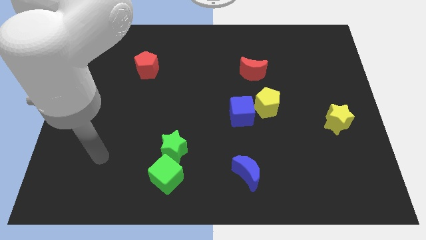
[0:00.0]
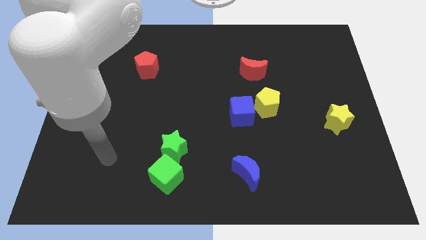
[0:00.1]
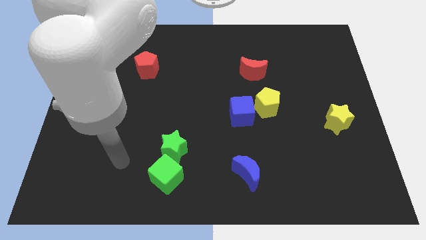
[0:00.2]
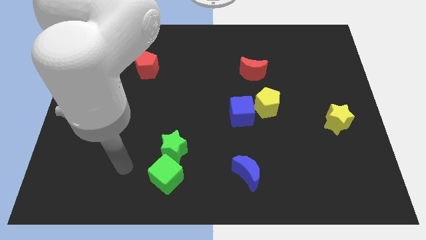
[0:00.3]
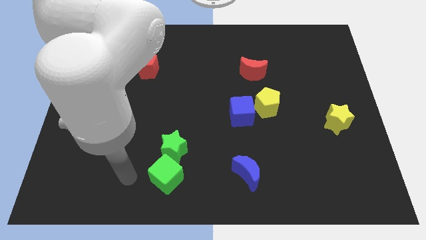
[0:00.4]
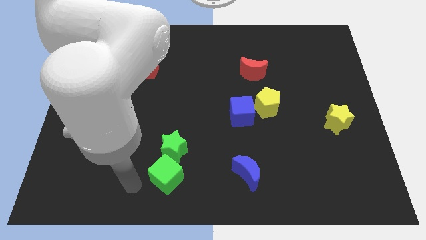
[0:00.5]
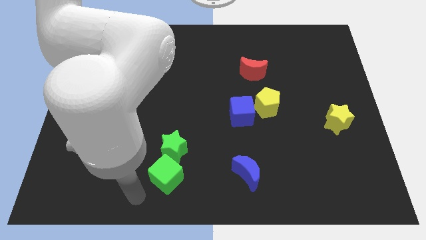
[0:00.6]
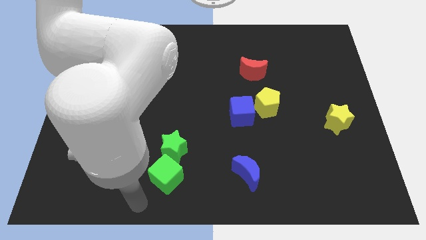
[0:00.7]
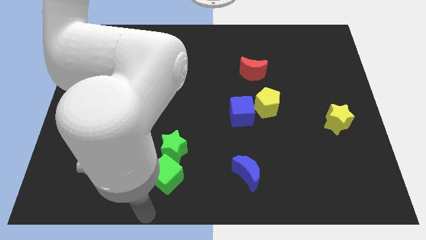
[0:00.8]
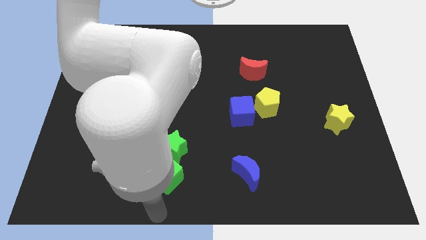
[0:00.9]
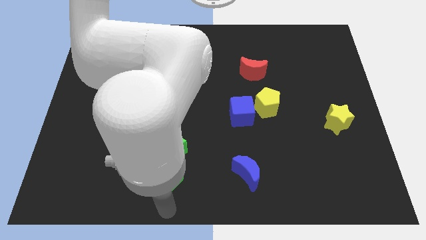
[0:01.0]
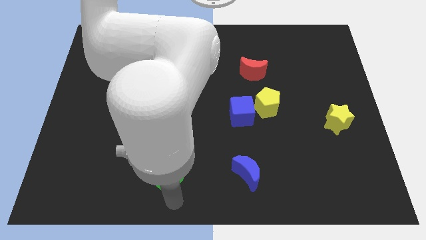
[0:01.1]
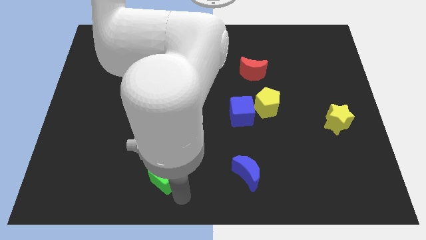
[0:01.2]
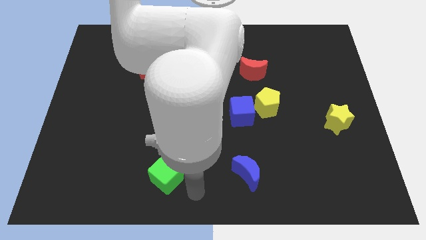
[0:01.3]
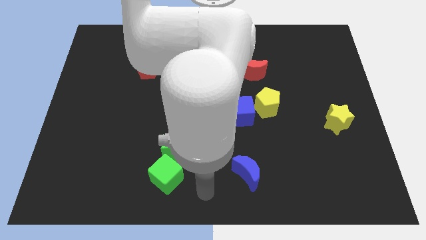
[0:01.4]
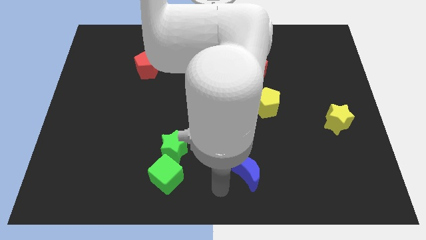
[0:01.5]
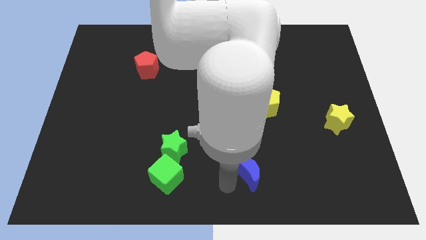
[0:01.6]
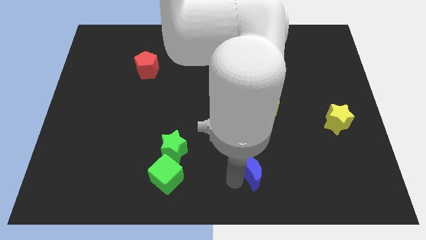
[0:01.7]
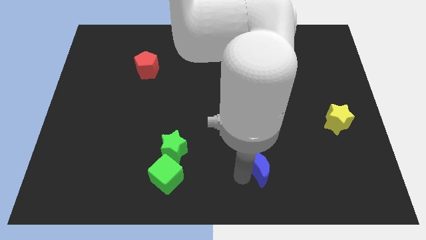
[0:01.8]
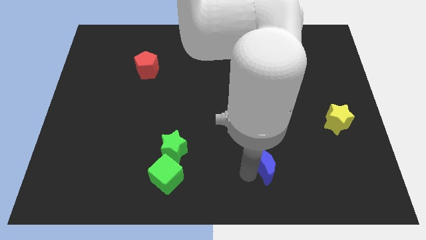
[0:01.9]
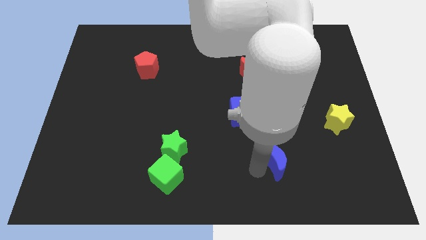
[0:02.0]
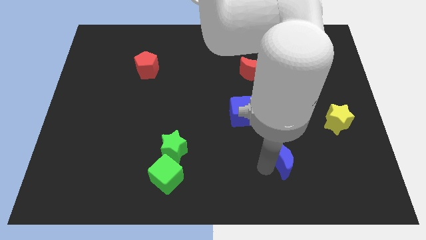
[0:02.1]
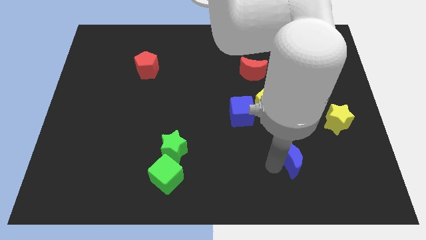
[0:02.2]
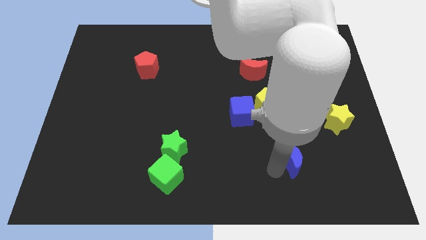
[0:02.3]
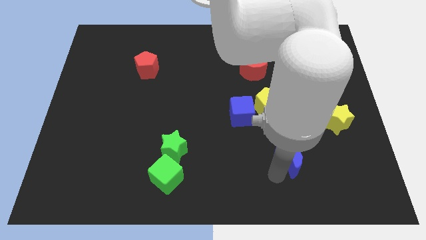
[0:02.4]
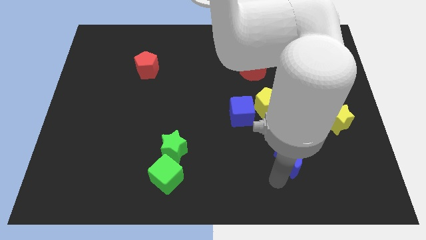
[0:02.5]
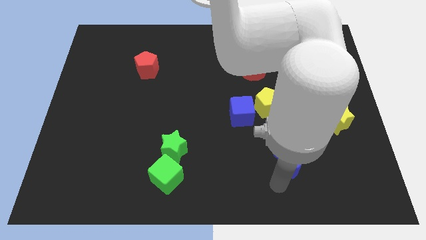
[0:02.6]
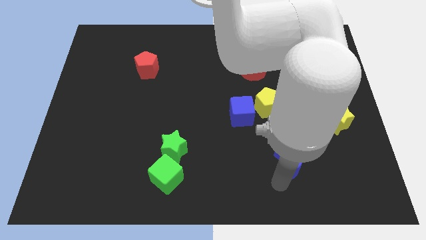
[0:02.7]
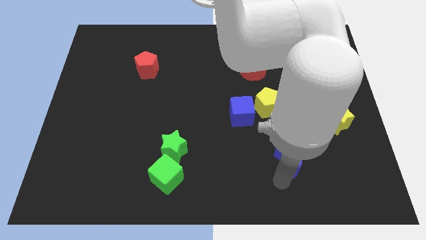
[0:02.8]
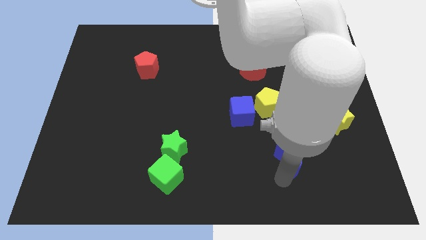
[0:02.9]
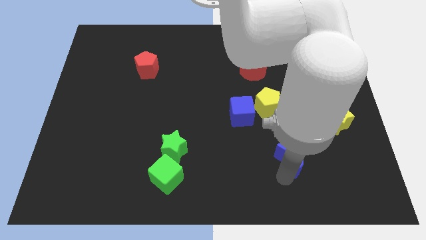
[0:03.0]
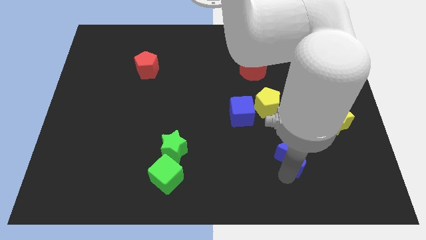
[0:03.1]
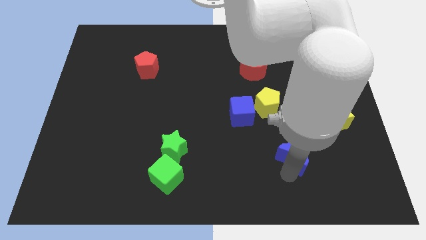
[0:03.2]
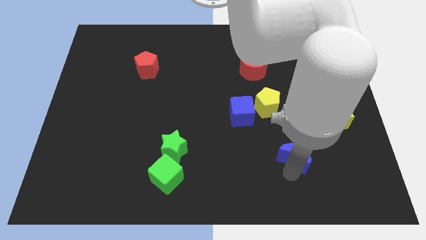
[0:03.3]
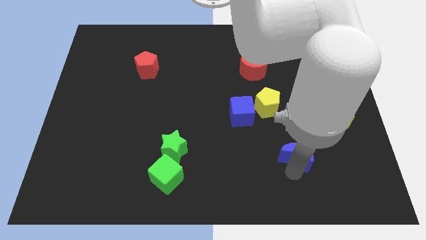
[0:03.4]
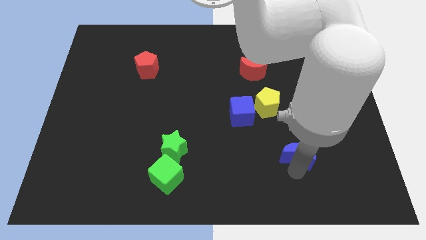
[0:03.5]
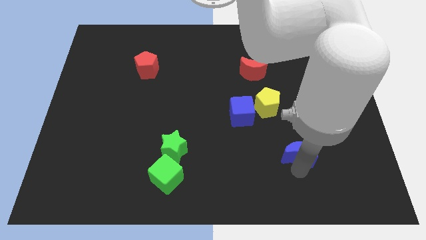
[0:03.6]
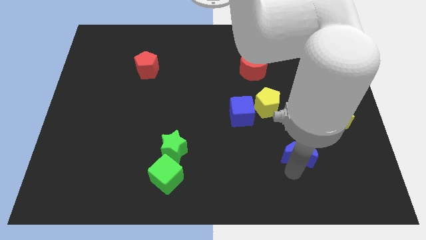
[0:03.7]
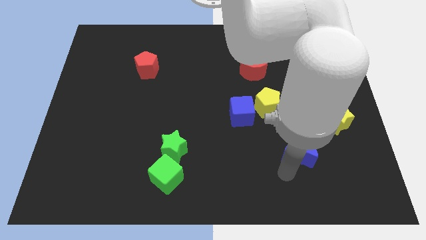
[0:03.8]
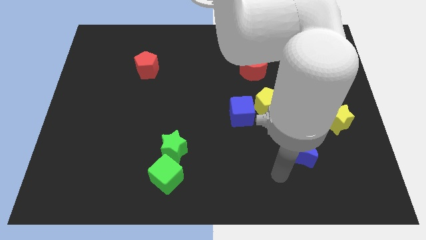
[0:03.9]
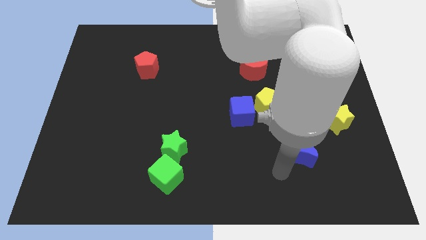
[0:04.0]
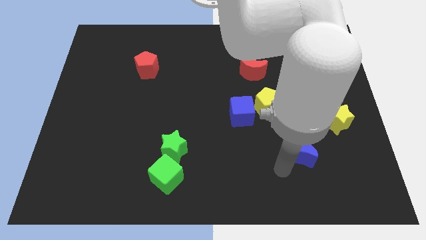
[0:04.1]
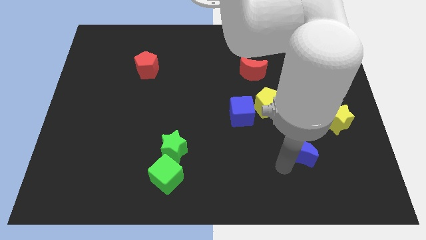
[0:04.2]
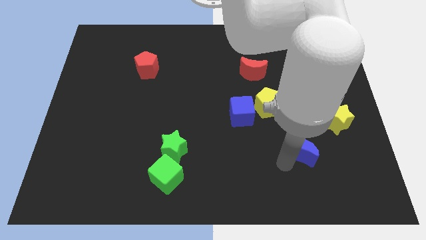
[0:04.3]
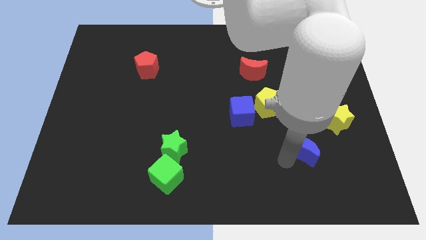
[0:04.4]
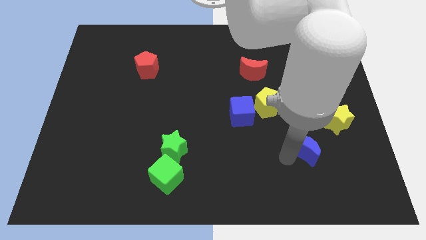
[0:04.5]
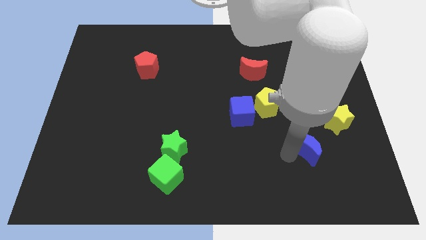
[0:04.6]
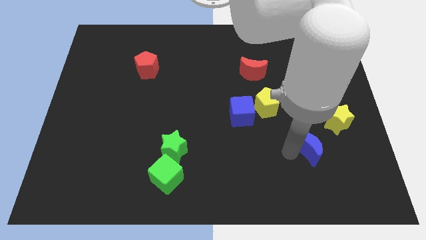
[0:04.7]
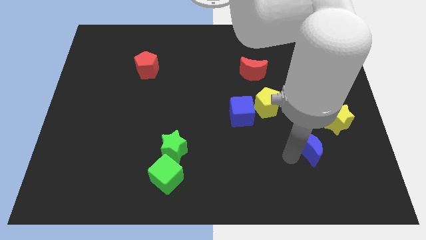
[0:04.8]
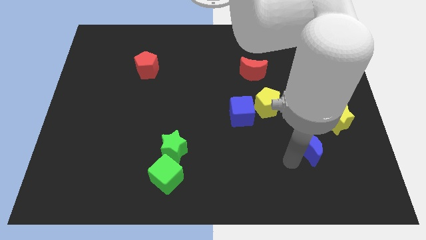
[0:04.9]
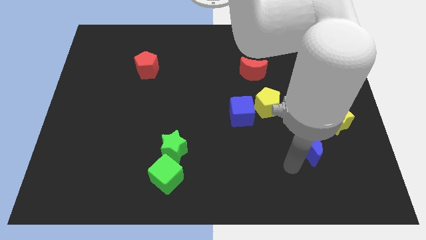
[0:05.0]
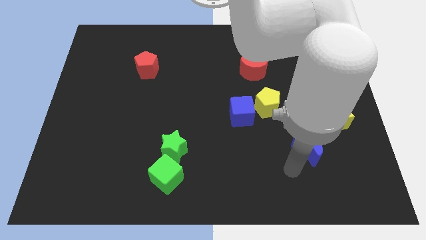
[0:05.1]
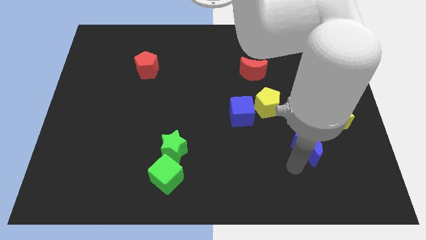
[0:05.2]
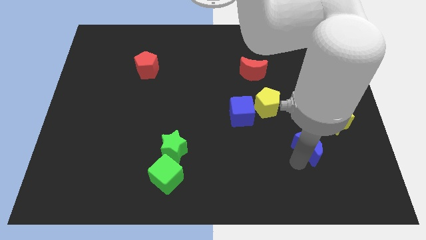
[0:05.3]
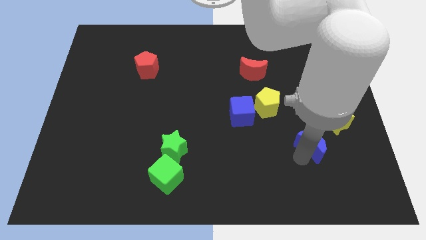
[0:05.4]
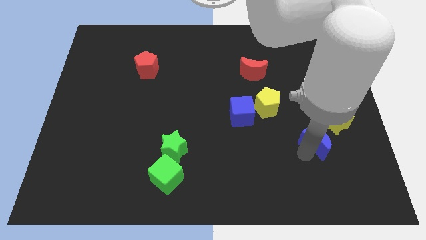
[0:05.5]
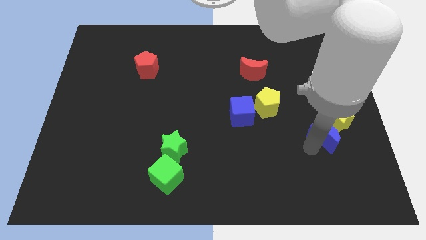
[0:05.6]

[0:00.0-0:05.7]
move the blue moon towards the yellow star

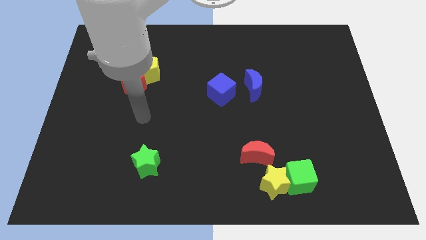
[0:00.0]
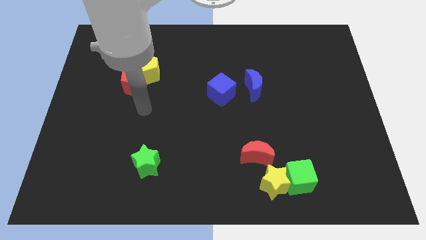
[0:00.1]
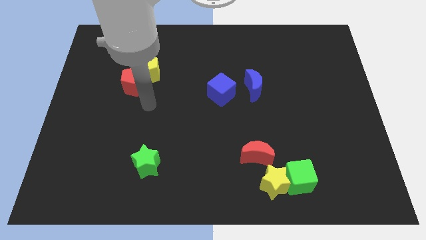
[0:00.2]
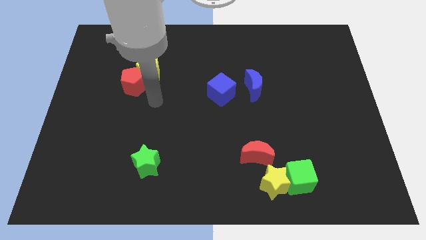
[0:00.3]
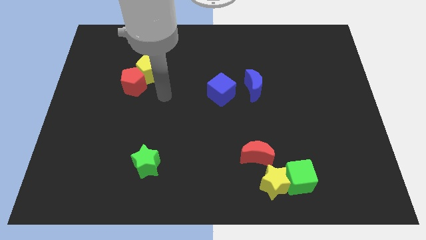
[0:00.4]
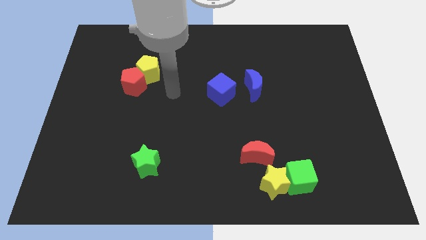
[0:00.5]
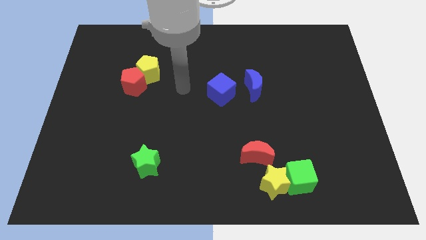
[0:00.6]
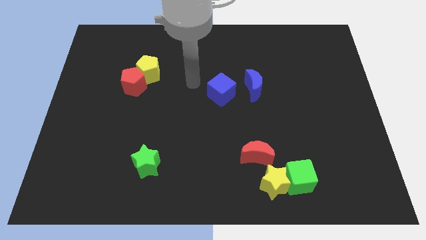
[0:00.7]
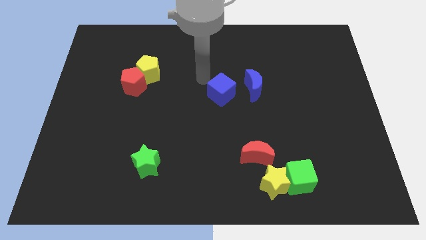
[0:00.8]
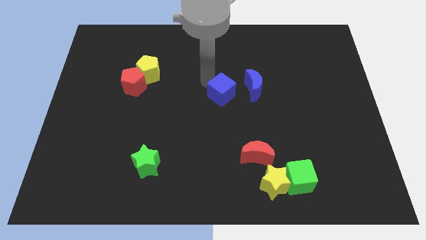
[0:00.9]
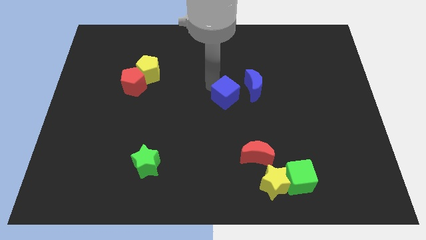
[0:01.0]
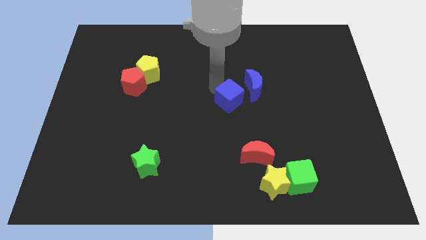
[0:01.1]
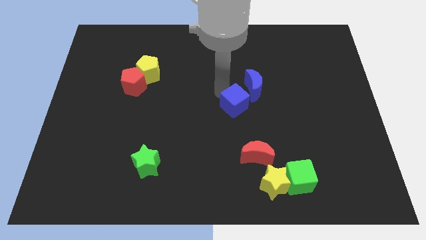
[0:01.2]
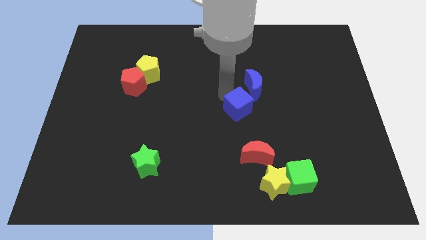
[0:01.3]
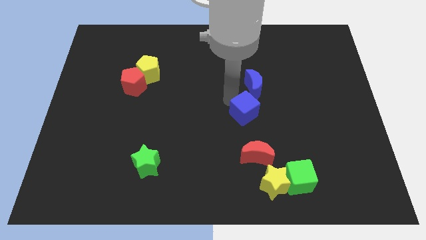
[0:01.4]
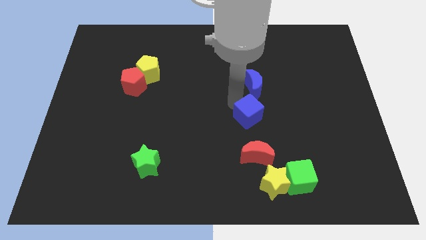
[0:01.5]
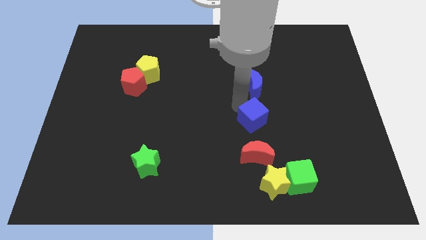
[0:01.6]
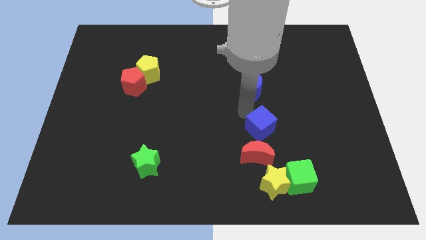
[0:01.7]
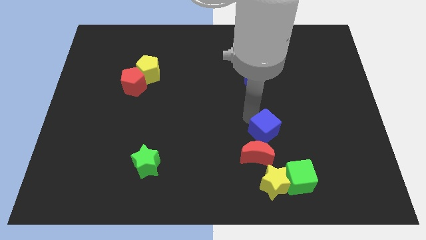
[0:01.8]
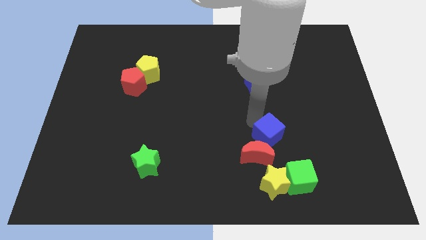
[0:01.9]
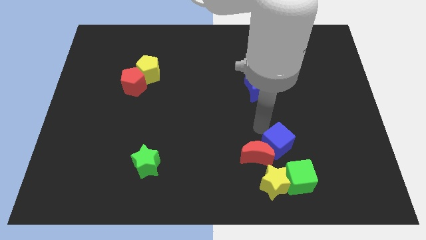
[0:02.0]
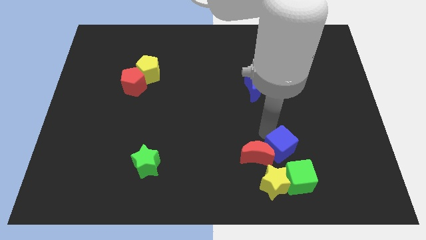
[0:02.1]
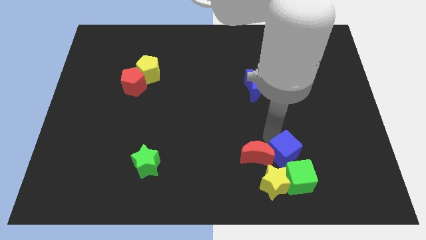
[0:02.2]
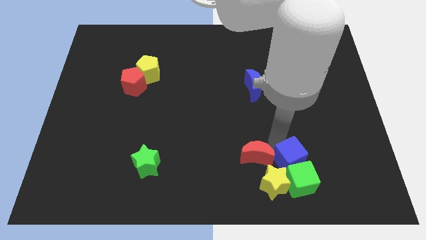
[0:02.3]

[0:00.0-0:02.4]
push the blue cube to the green cube

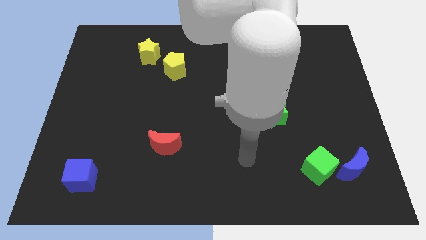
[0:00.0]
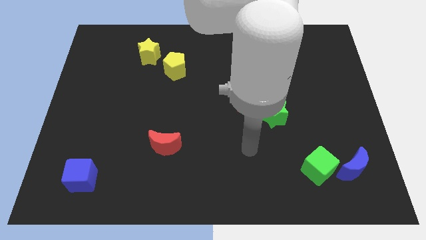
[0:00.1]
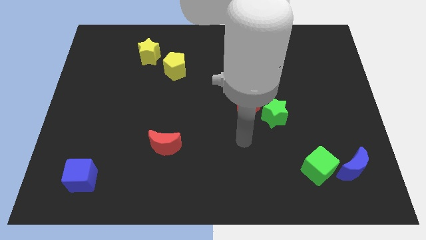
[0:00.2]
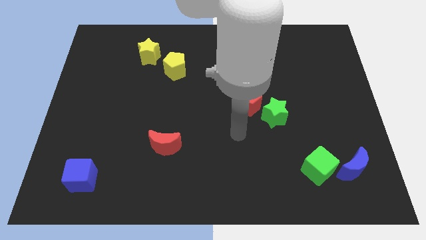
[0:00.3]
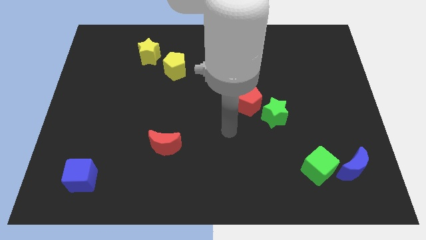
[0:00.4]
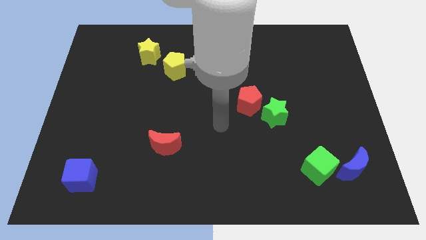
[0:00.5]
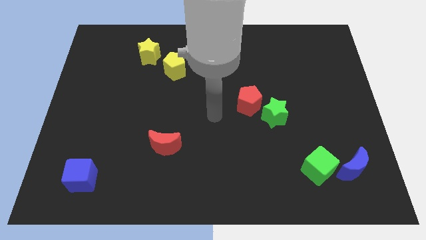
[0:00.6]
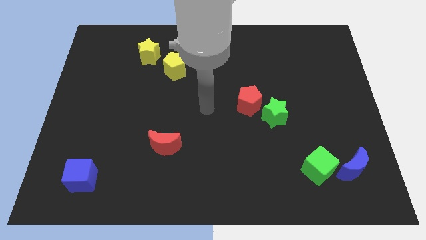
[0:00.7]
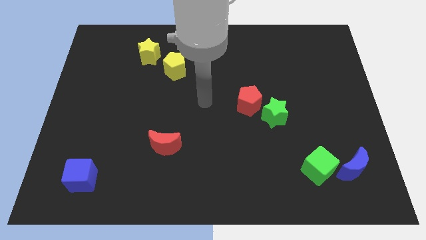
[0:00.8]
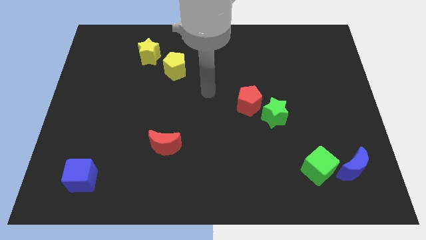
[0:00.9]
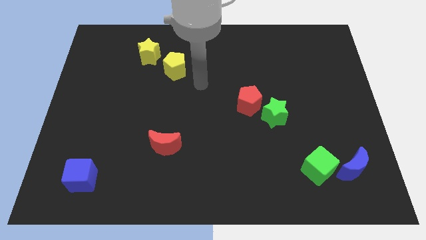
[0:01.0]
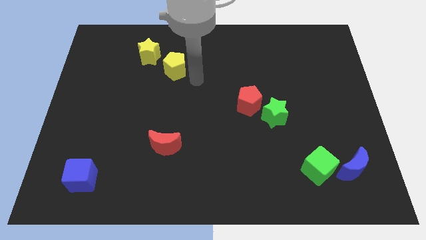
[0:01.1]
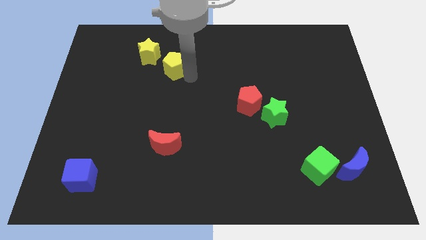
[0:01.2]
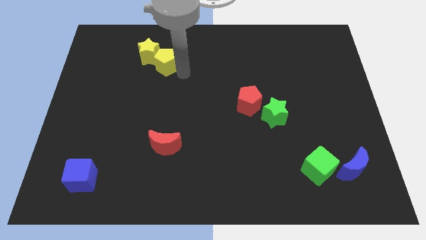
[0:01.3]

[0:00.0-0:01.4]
move the yellow pentagon next to the yellow star
